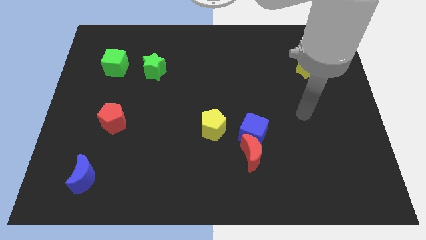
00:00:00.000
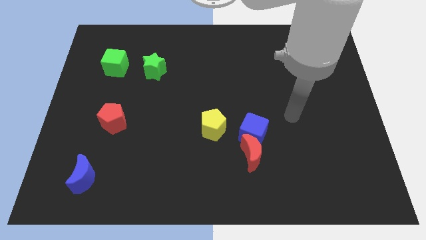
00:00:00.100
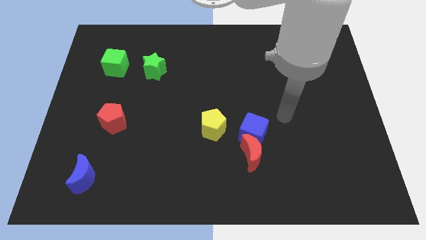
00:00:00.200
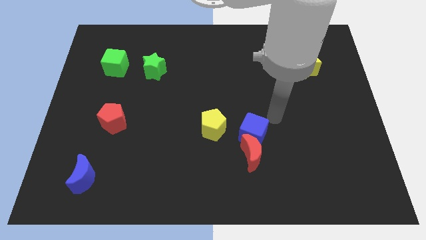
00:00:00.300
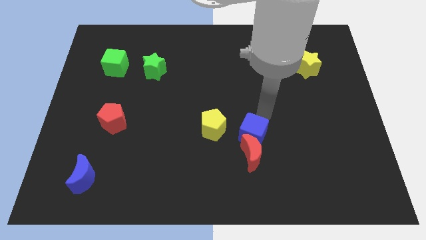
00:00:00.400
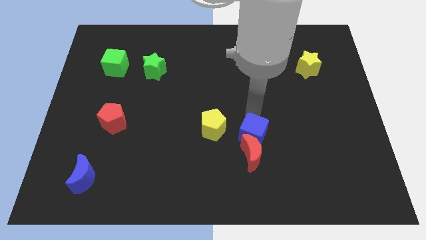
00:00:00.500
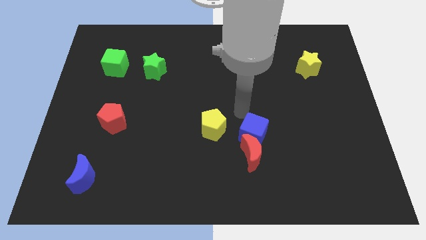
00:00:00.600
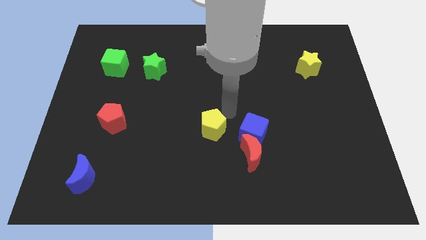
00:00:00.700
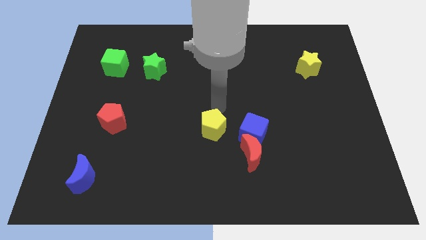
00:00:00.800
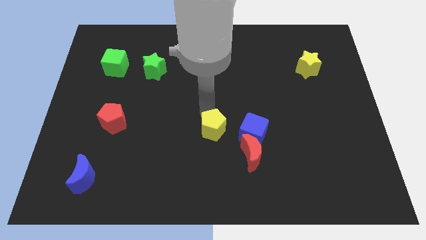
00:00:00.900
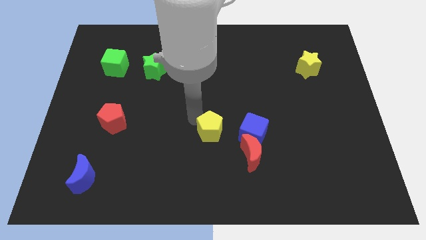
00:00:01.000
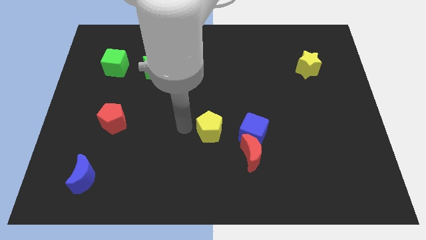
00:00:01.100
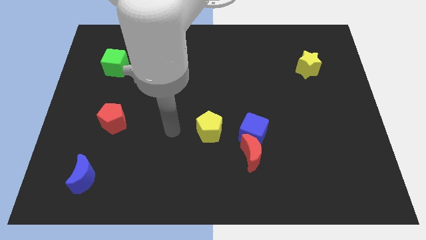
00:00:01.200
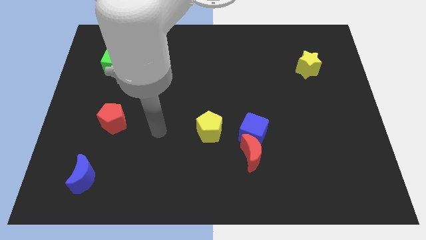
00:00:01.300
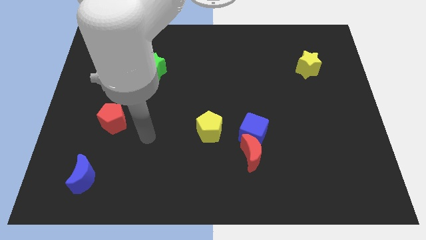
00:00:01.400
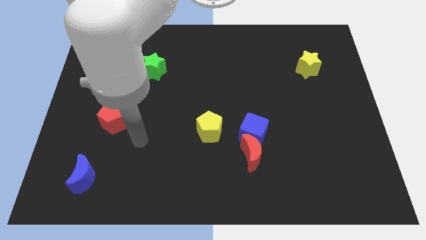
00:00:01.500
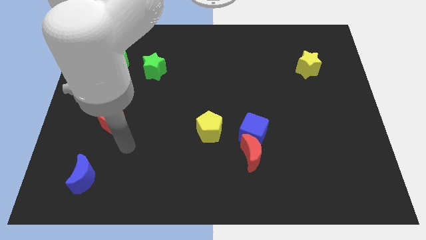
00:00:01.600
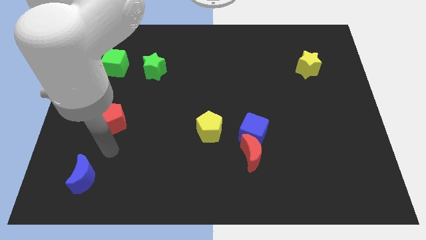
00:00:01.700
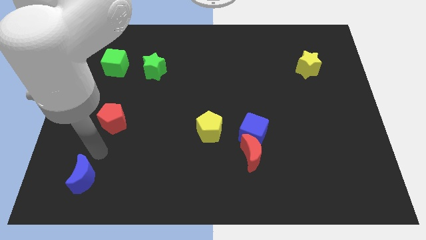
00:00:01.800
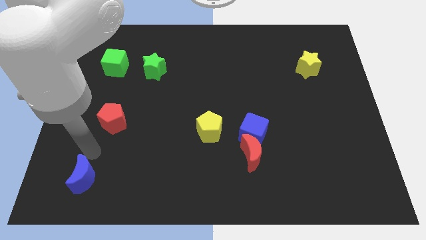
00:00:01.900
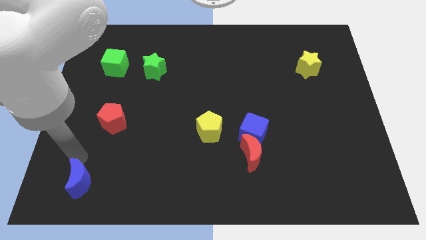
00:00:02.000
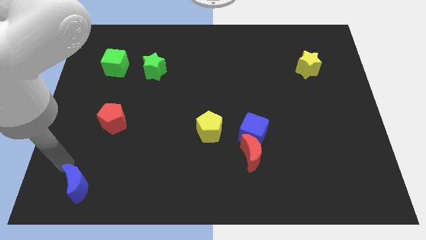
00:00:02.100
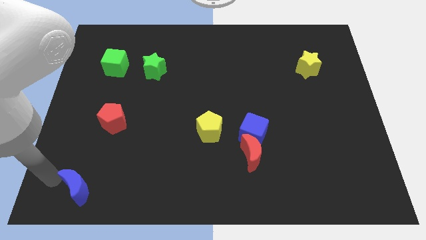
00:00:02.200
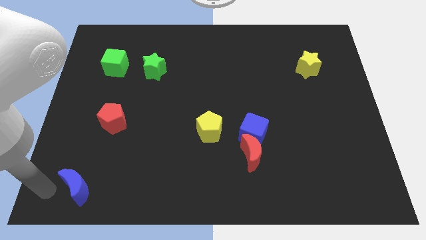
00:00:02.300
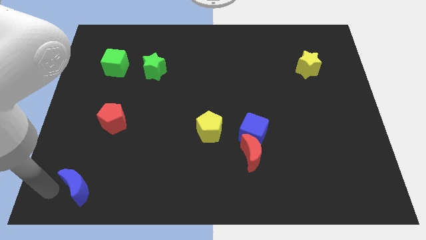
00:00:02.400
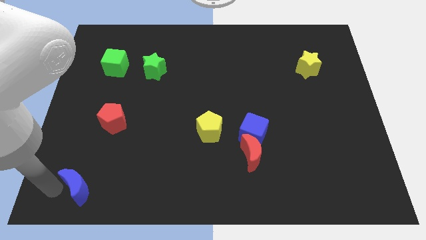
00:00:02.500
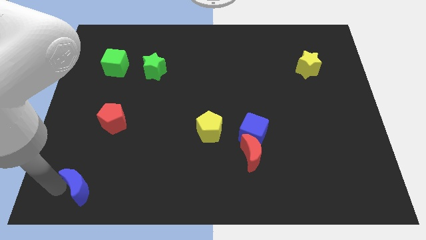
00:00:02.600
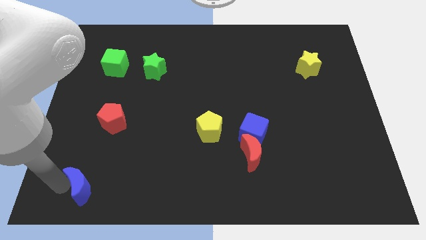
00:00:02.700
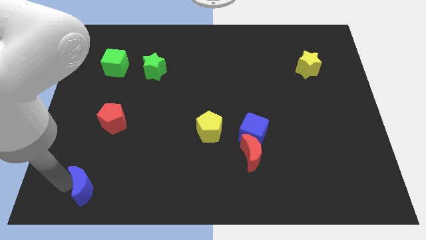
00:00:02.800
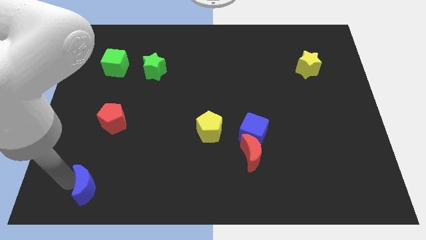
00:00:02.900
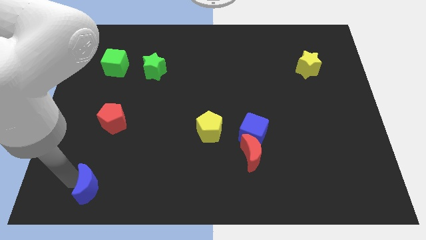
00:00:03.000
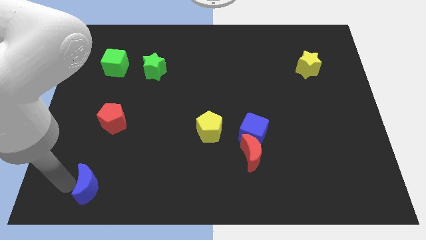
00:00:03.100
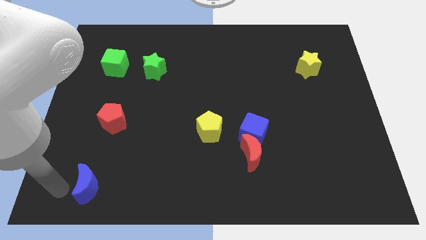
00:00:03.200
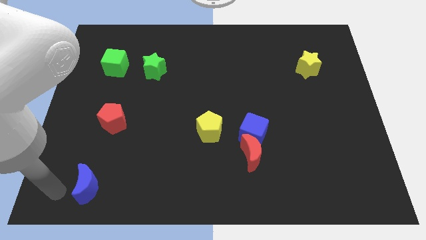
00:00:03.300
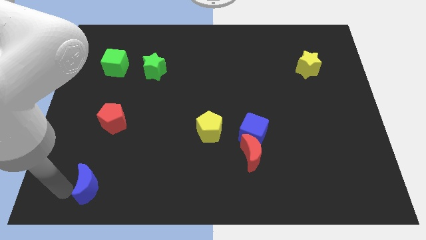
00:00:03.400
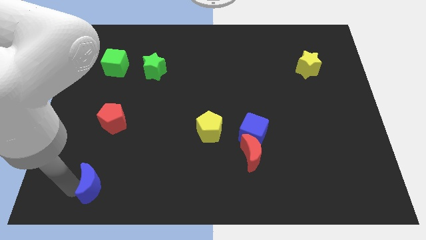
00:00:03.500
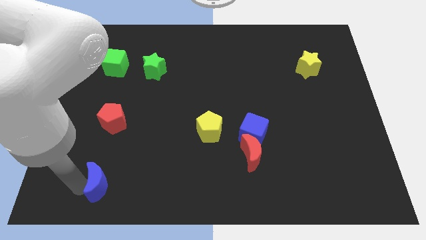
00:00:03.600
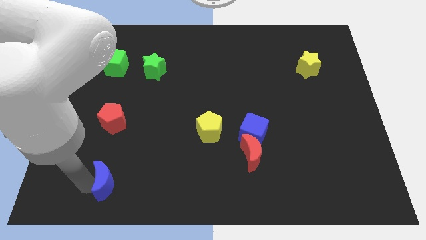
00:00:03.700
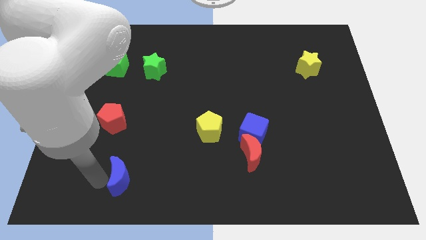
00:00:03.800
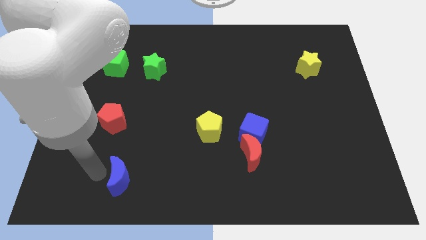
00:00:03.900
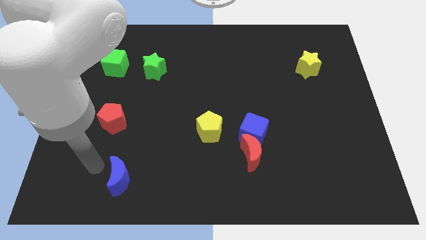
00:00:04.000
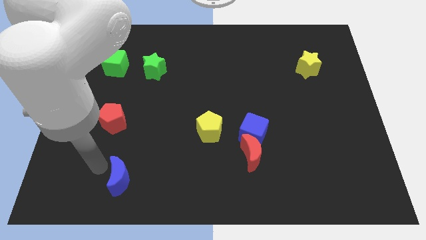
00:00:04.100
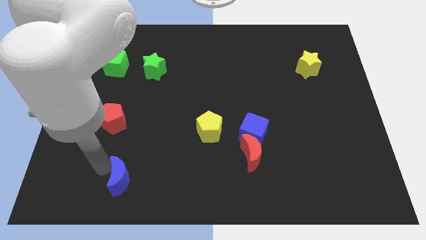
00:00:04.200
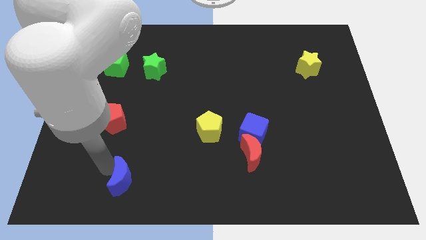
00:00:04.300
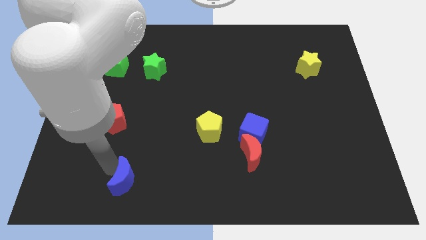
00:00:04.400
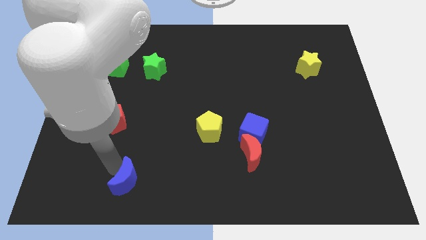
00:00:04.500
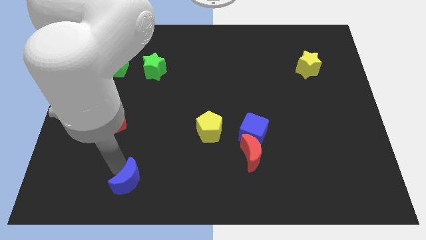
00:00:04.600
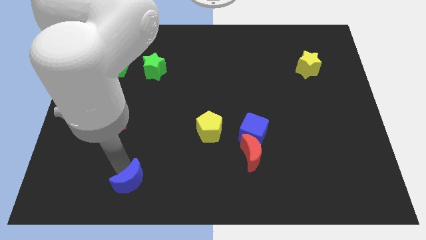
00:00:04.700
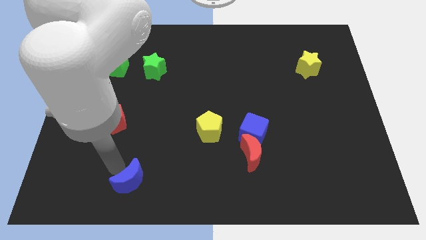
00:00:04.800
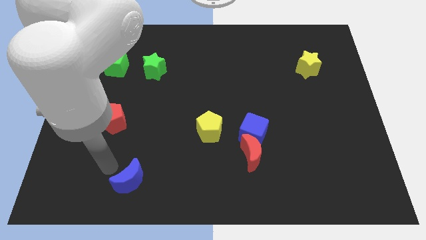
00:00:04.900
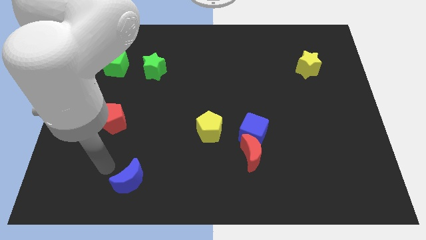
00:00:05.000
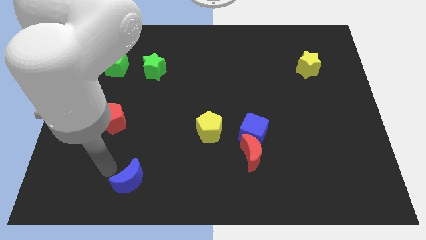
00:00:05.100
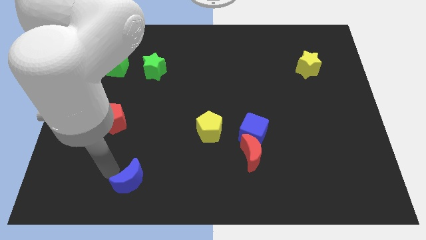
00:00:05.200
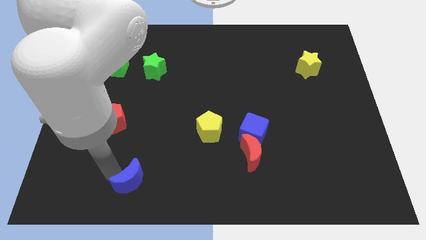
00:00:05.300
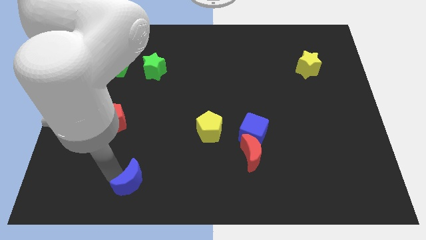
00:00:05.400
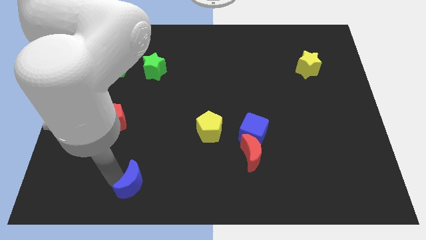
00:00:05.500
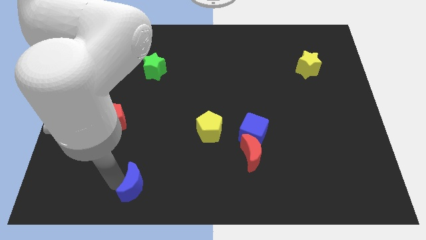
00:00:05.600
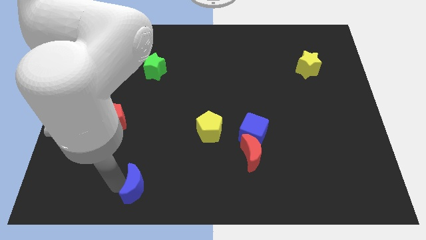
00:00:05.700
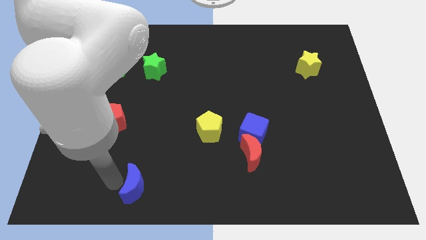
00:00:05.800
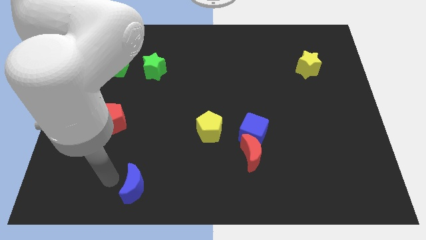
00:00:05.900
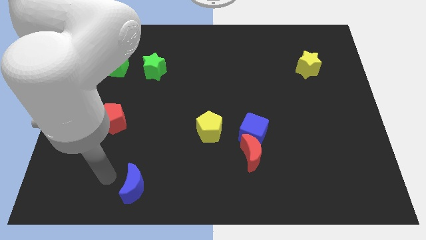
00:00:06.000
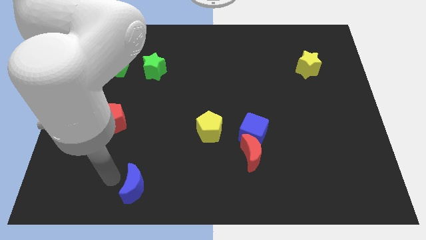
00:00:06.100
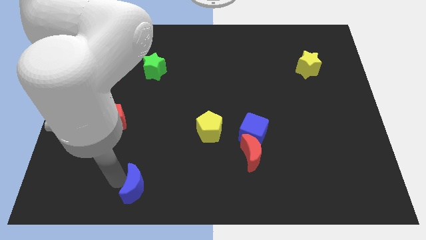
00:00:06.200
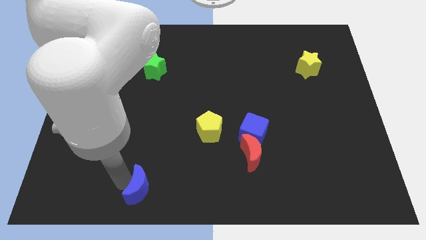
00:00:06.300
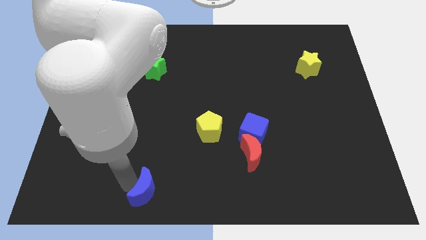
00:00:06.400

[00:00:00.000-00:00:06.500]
move the blue moon to the bottom side

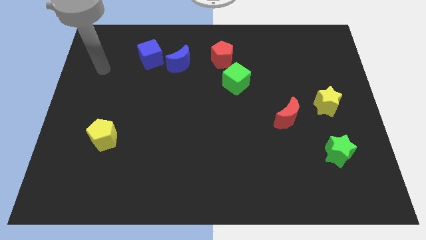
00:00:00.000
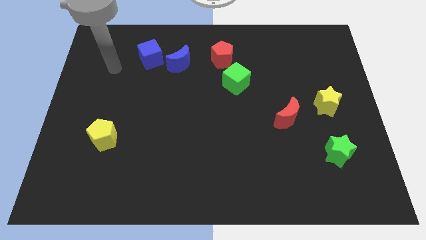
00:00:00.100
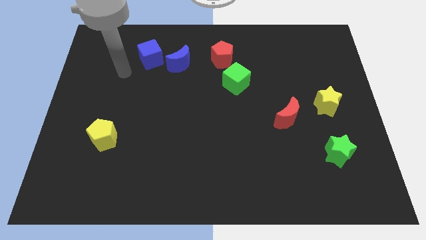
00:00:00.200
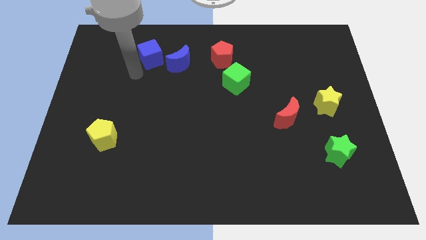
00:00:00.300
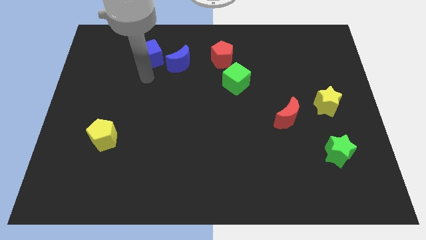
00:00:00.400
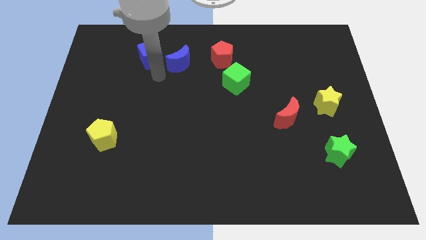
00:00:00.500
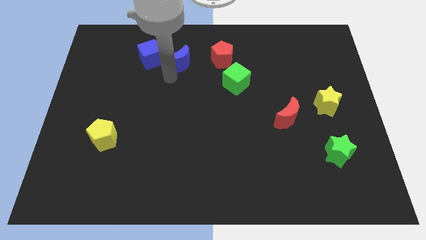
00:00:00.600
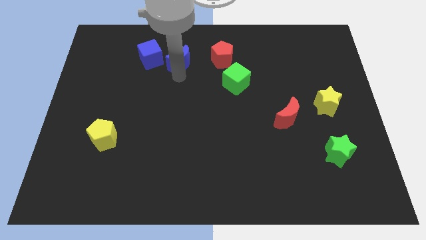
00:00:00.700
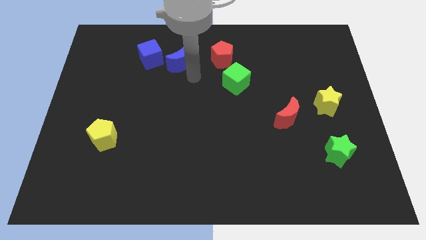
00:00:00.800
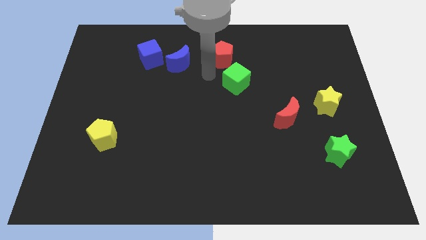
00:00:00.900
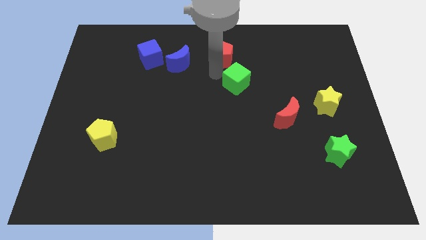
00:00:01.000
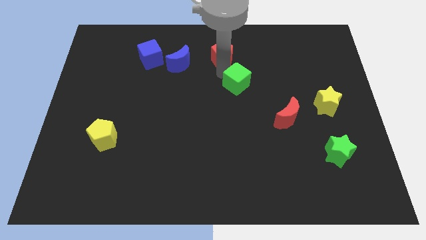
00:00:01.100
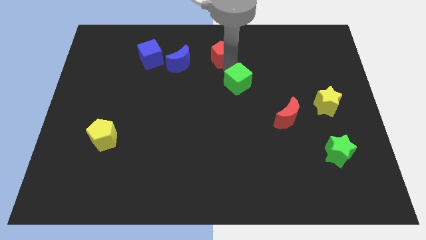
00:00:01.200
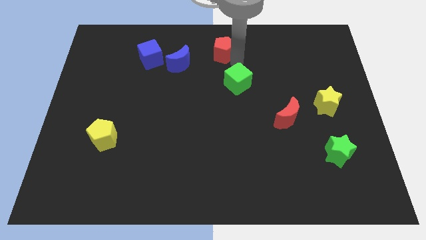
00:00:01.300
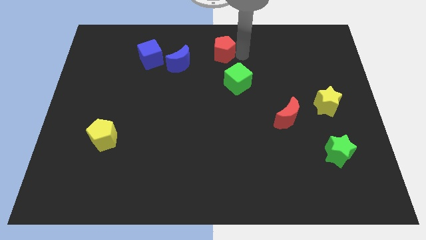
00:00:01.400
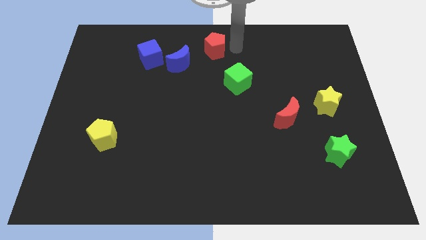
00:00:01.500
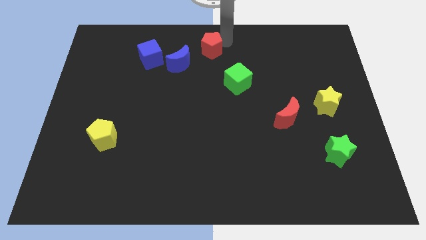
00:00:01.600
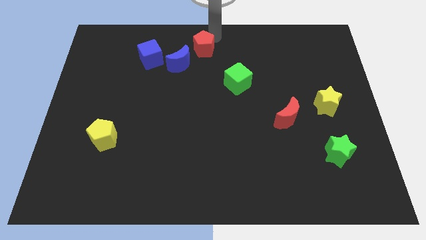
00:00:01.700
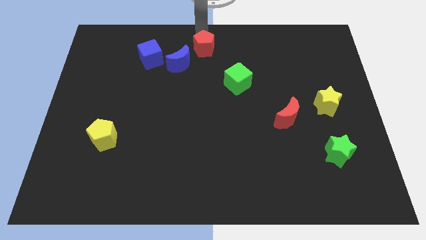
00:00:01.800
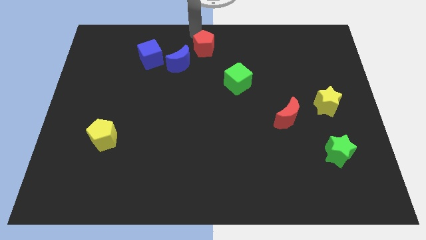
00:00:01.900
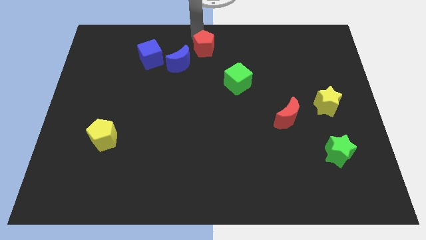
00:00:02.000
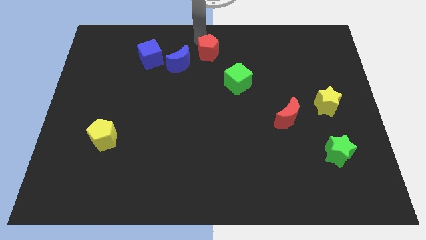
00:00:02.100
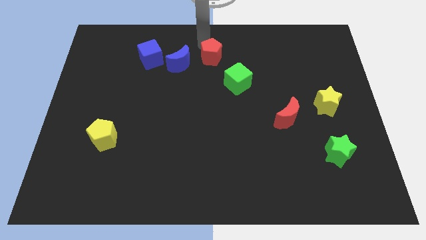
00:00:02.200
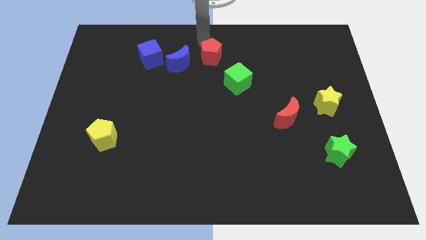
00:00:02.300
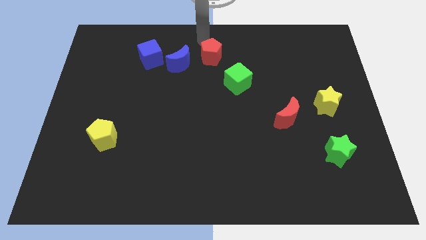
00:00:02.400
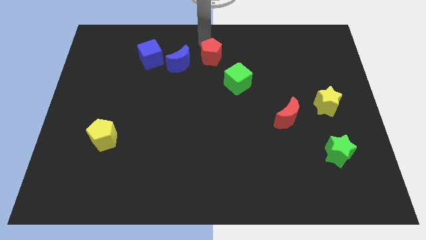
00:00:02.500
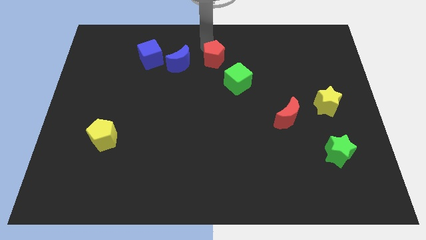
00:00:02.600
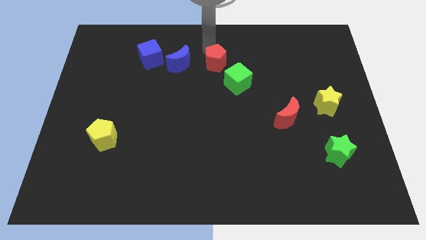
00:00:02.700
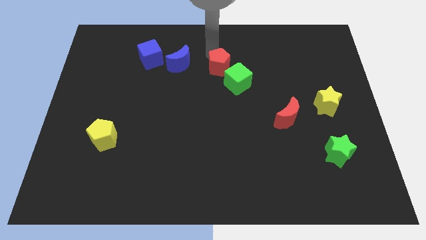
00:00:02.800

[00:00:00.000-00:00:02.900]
move the red pentagon to the middle of the board
